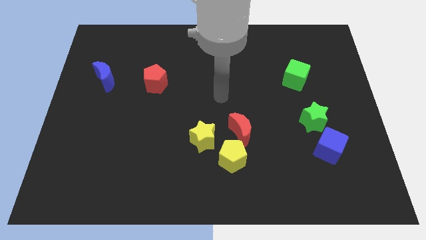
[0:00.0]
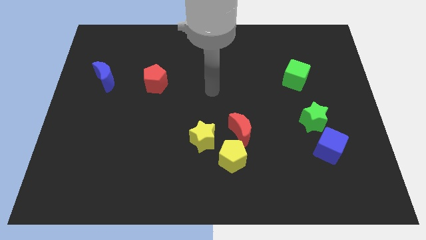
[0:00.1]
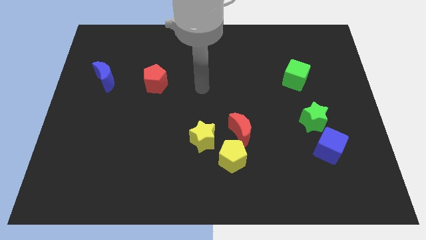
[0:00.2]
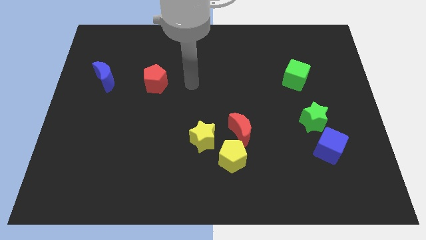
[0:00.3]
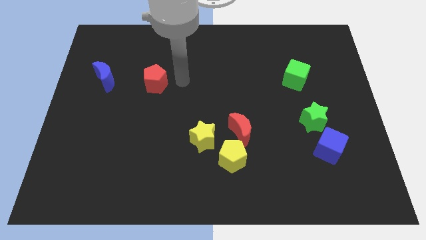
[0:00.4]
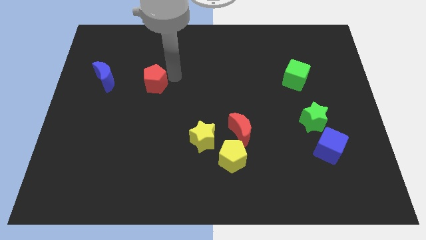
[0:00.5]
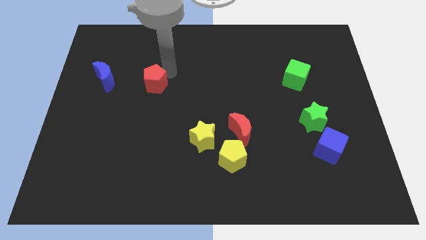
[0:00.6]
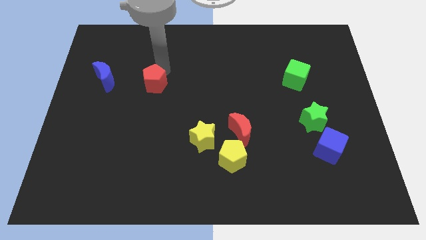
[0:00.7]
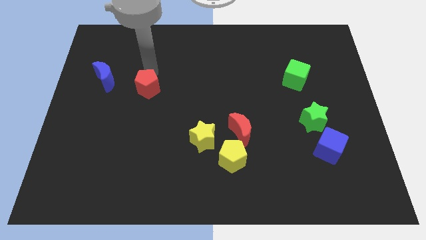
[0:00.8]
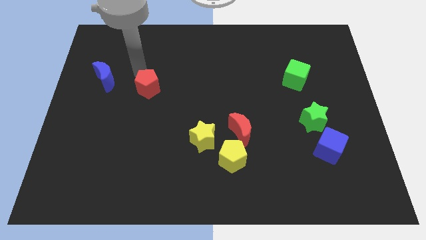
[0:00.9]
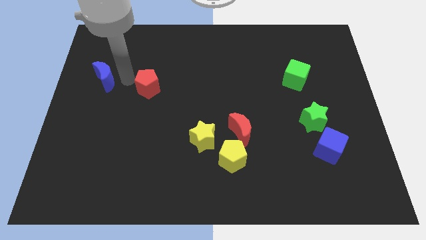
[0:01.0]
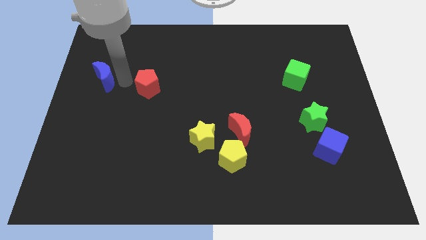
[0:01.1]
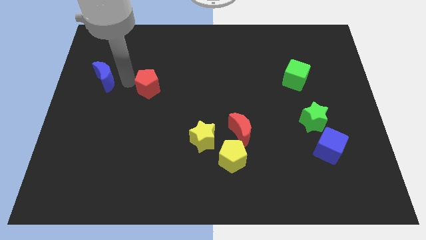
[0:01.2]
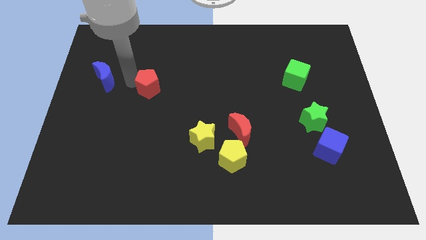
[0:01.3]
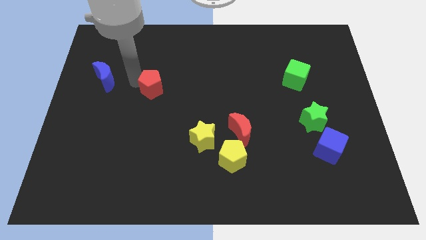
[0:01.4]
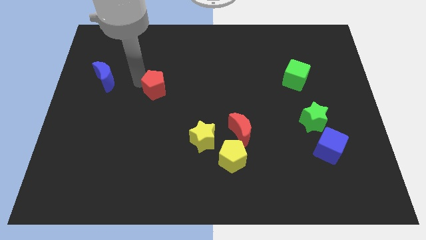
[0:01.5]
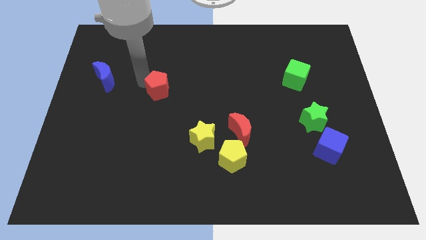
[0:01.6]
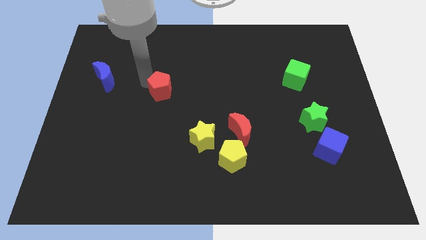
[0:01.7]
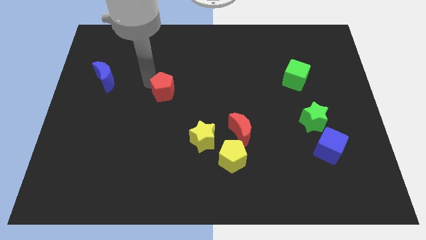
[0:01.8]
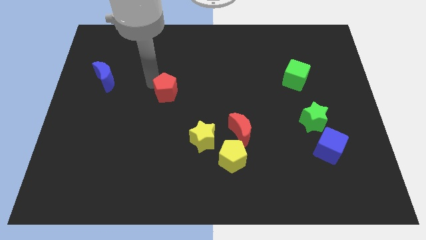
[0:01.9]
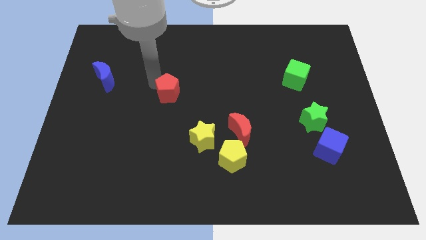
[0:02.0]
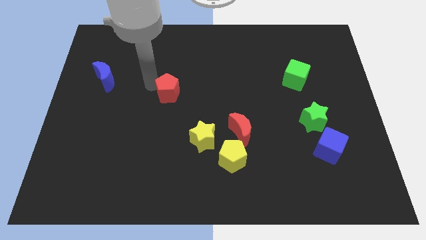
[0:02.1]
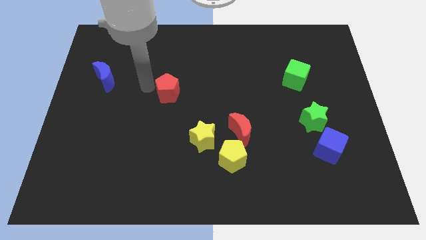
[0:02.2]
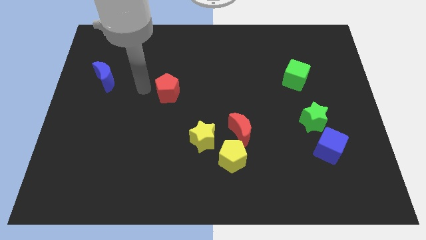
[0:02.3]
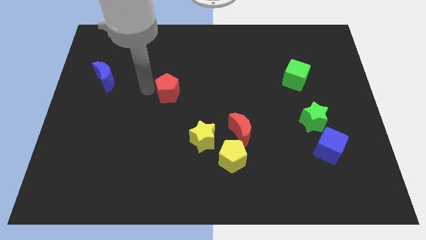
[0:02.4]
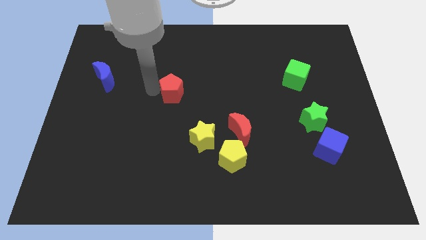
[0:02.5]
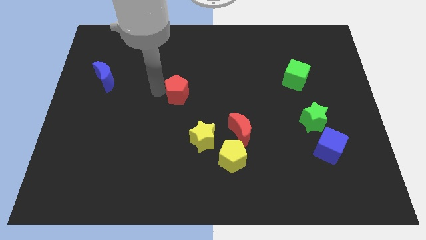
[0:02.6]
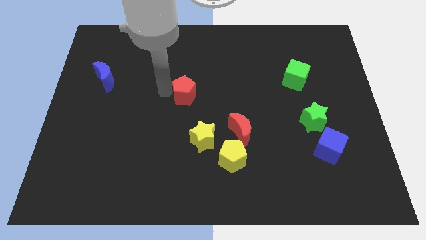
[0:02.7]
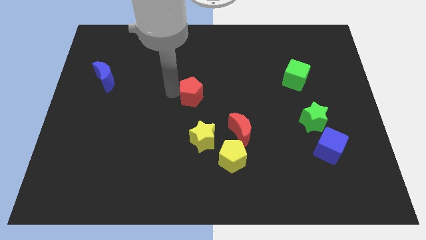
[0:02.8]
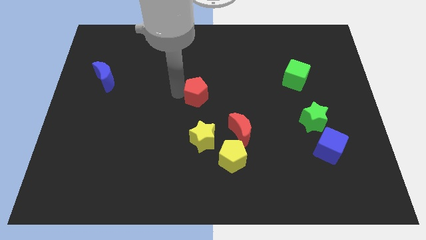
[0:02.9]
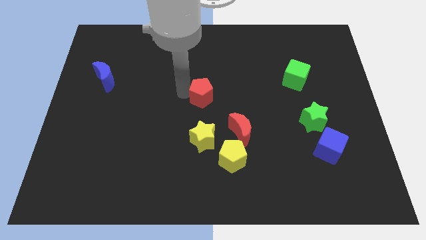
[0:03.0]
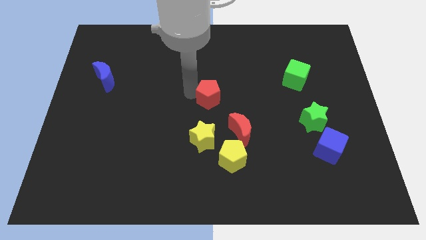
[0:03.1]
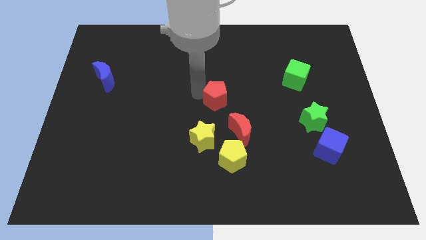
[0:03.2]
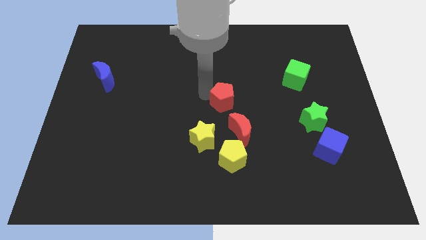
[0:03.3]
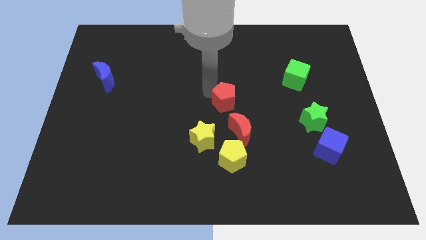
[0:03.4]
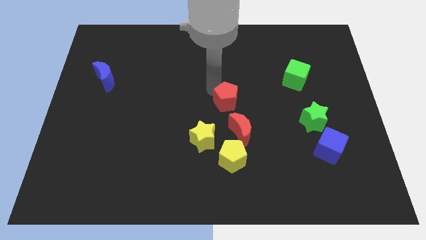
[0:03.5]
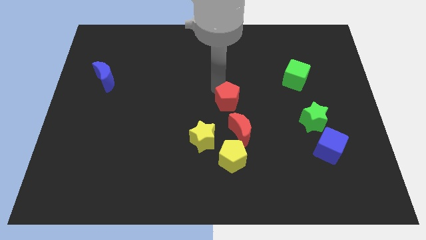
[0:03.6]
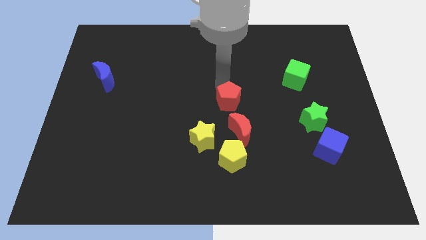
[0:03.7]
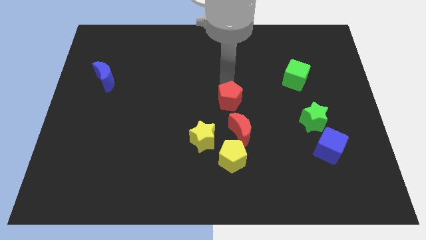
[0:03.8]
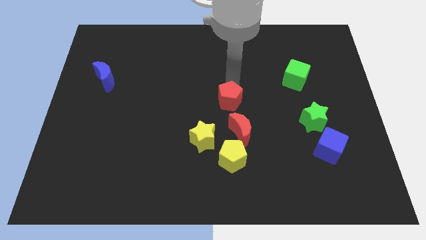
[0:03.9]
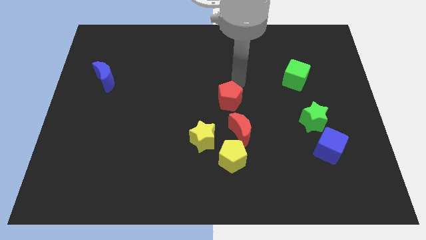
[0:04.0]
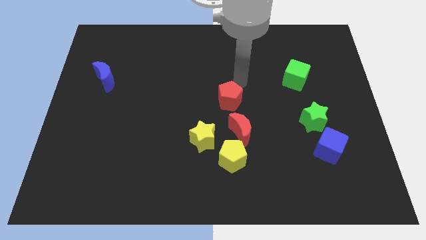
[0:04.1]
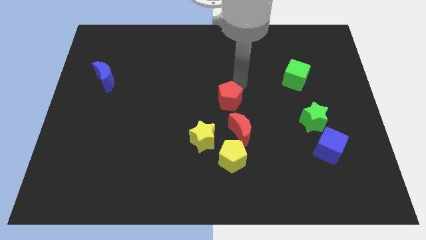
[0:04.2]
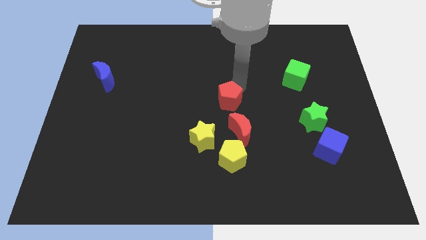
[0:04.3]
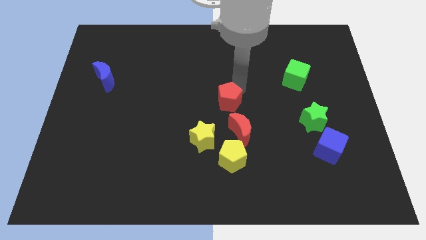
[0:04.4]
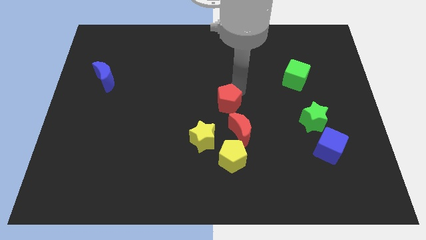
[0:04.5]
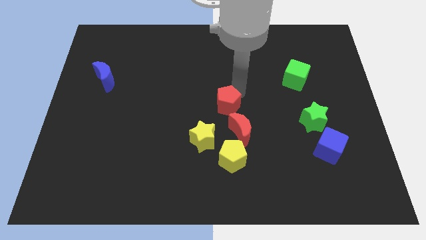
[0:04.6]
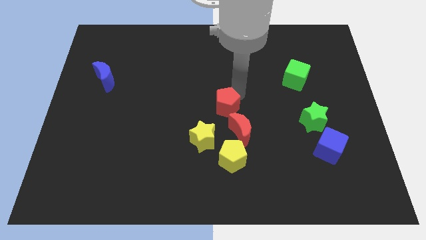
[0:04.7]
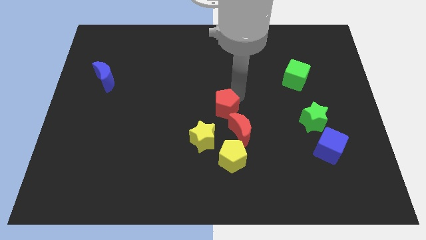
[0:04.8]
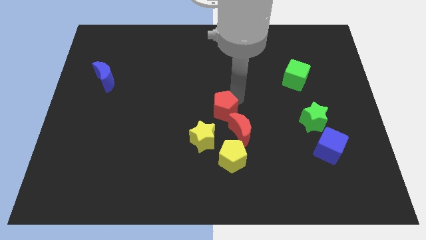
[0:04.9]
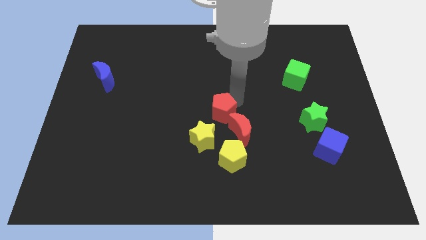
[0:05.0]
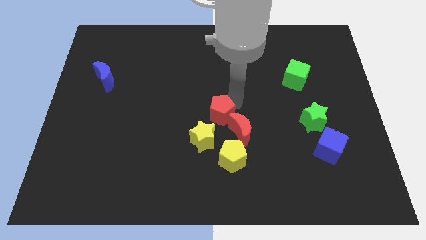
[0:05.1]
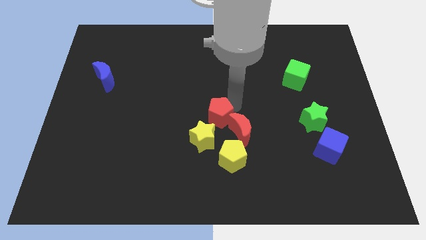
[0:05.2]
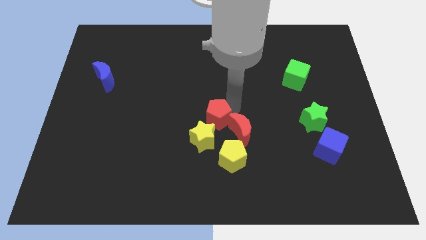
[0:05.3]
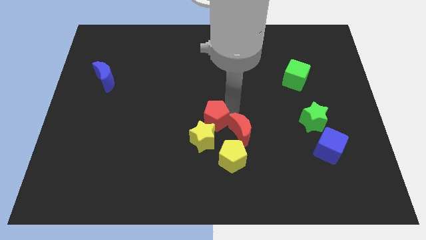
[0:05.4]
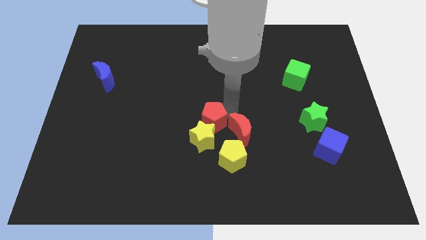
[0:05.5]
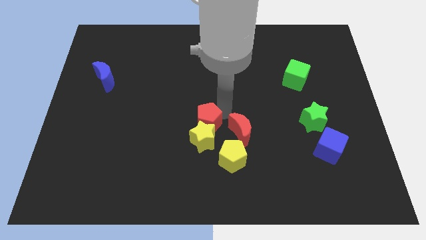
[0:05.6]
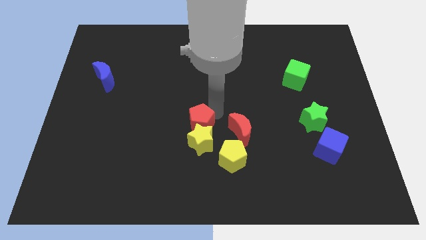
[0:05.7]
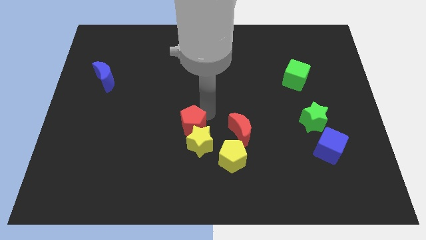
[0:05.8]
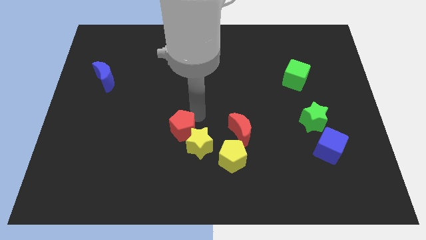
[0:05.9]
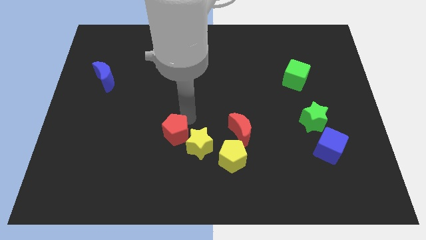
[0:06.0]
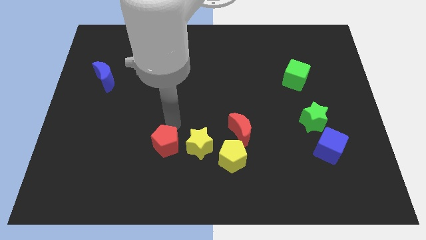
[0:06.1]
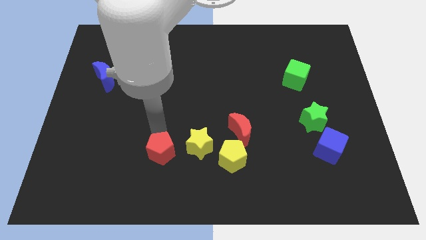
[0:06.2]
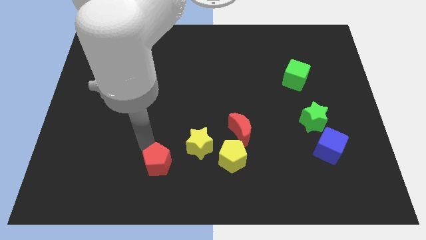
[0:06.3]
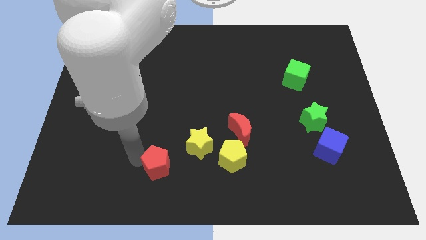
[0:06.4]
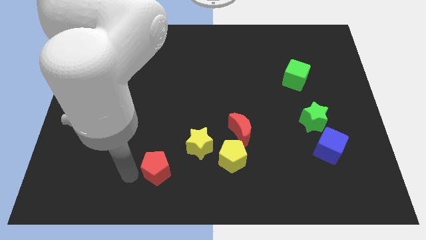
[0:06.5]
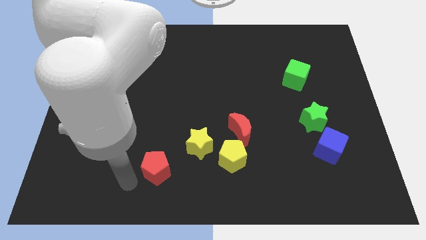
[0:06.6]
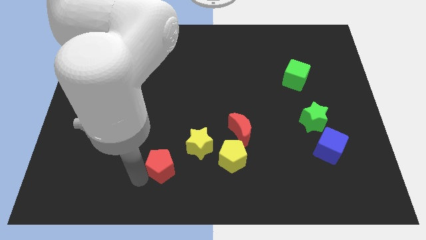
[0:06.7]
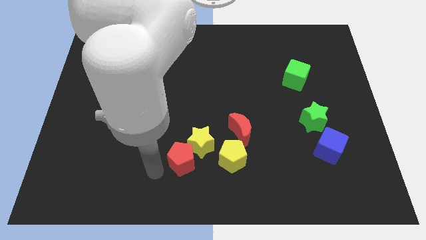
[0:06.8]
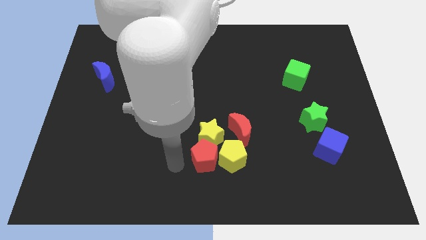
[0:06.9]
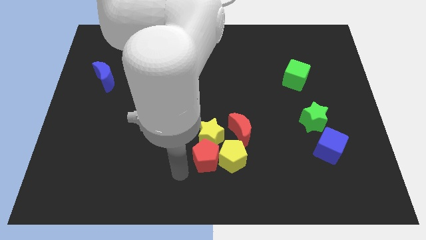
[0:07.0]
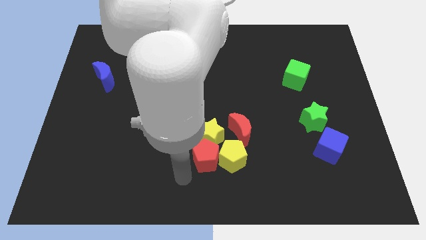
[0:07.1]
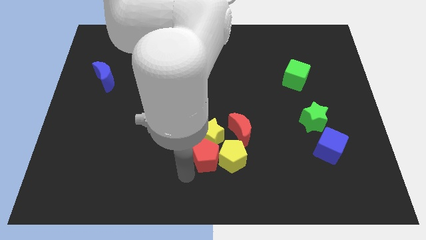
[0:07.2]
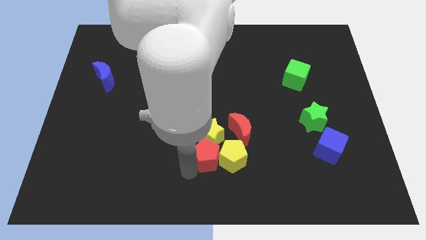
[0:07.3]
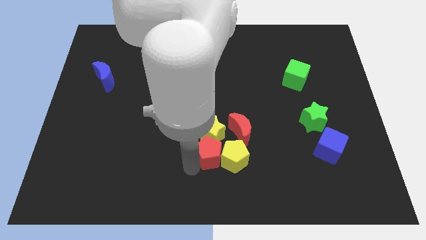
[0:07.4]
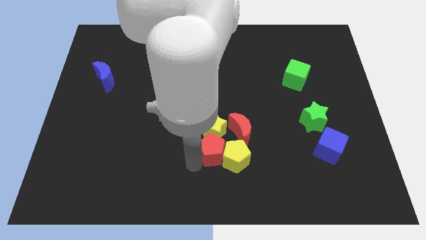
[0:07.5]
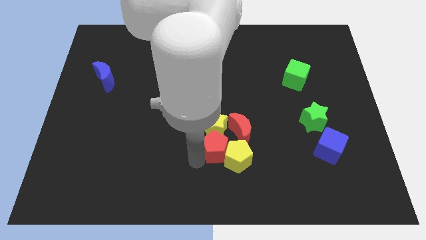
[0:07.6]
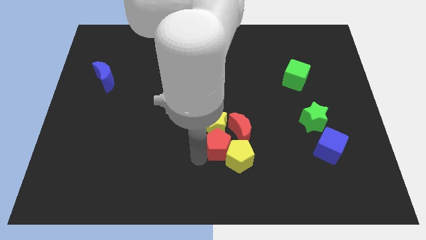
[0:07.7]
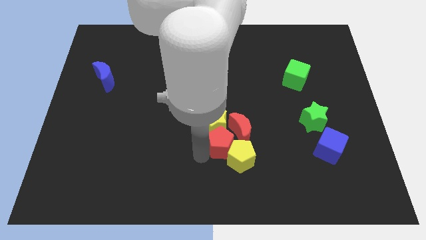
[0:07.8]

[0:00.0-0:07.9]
slide the red pentagon next to the red moon
